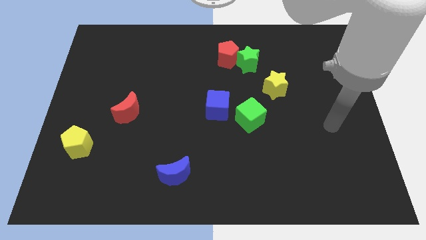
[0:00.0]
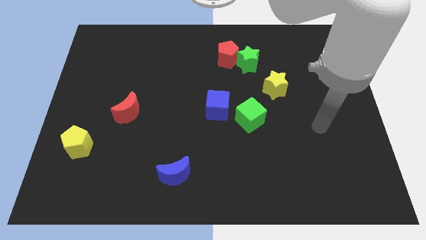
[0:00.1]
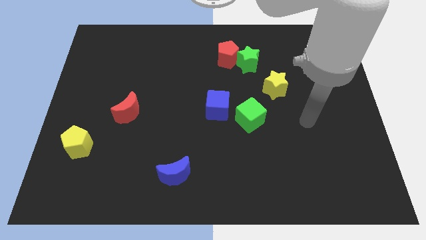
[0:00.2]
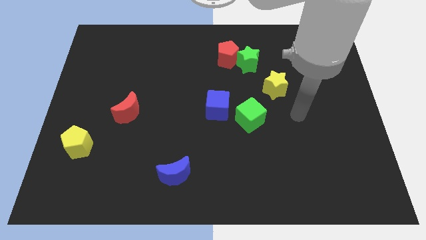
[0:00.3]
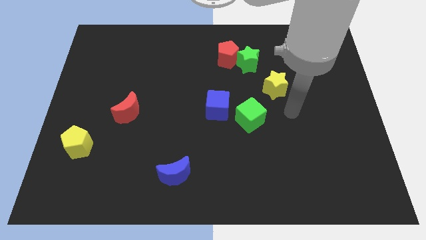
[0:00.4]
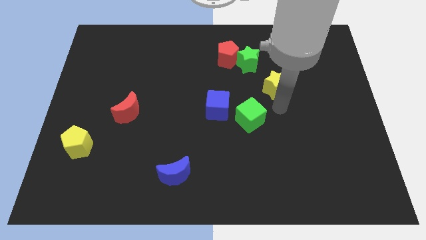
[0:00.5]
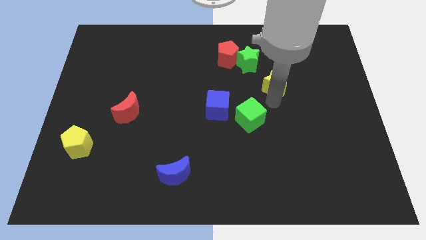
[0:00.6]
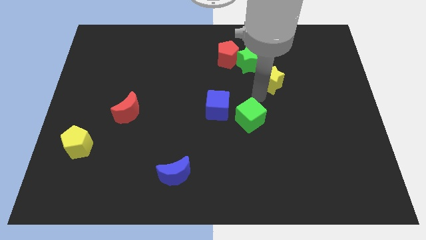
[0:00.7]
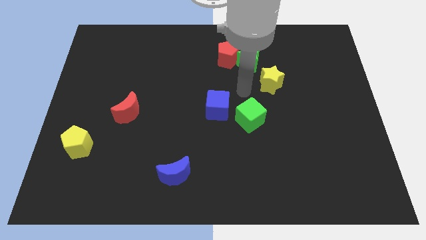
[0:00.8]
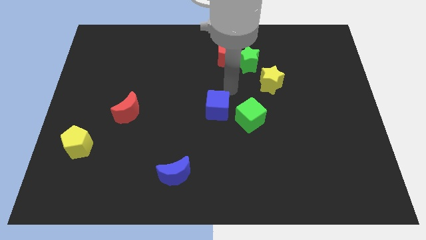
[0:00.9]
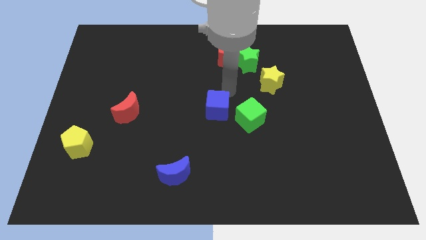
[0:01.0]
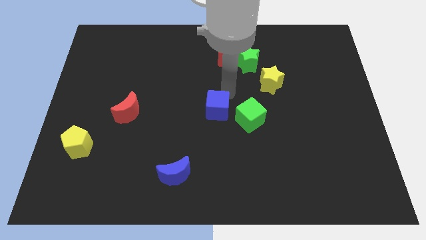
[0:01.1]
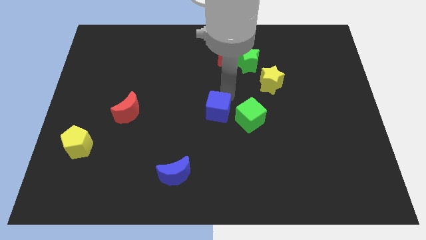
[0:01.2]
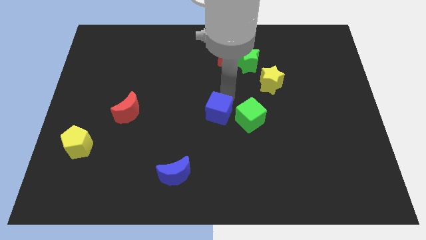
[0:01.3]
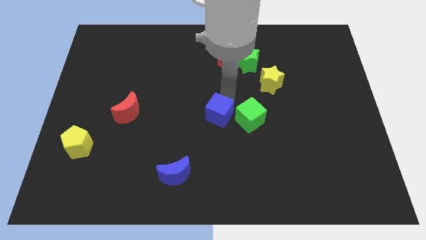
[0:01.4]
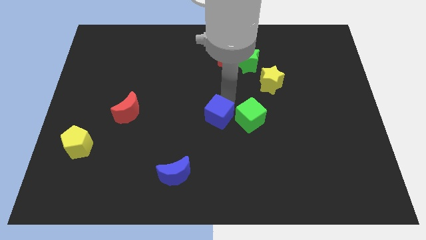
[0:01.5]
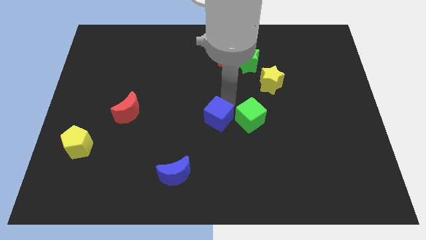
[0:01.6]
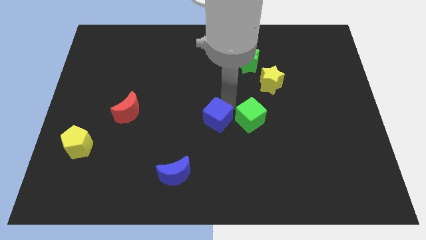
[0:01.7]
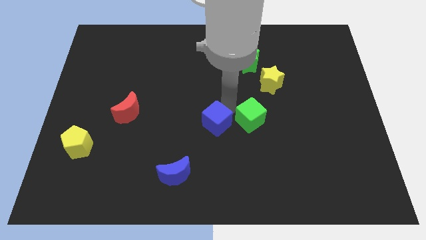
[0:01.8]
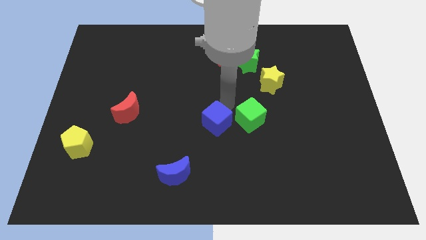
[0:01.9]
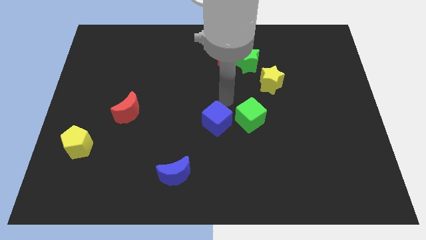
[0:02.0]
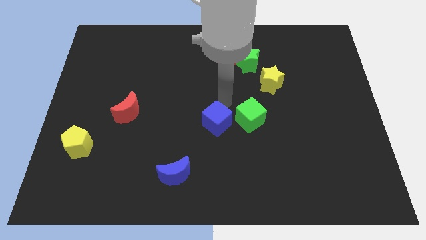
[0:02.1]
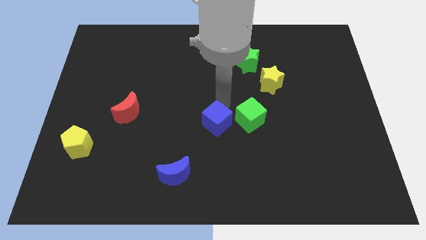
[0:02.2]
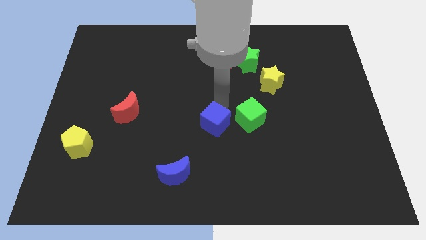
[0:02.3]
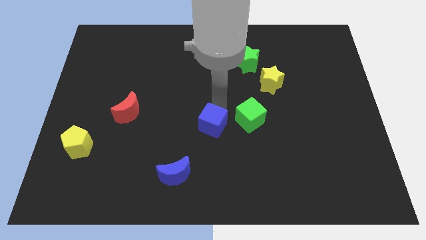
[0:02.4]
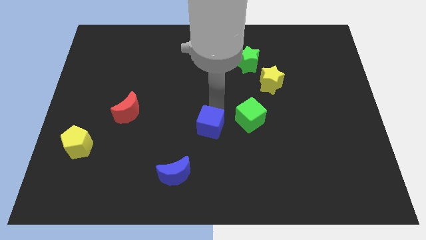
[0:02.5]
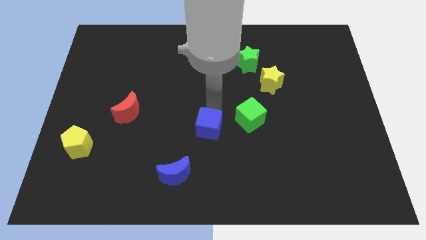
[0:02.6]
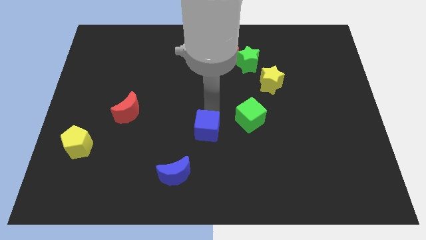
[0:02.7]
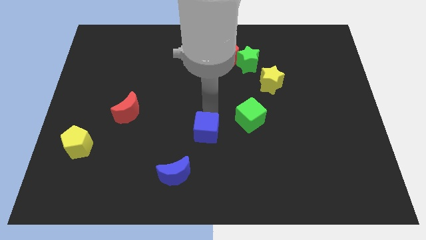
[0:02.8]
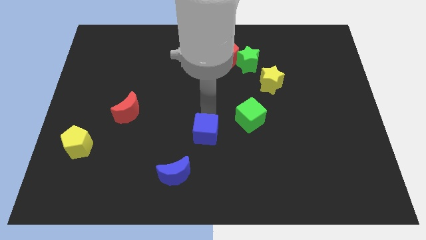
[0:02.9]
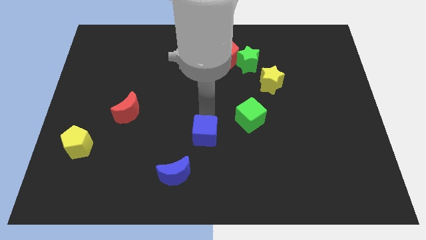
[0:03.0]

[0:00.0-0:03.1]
push the blue cube slightly down

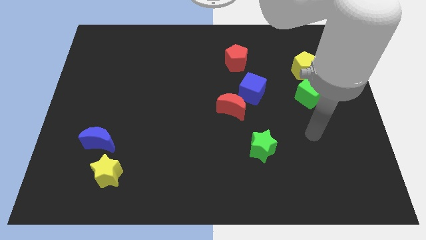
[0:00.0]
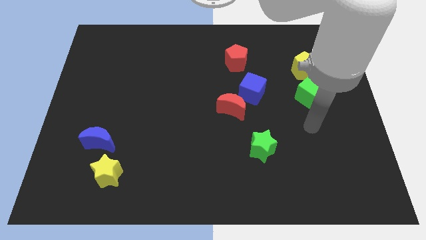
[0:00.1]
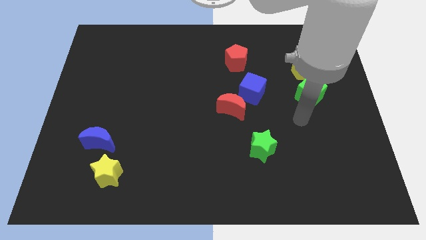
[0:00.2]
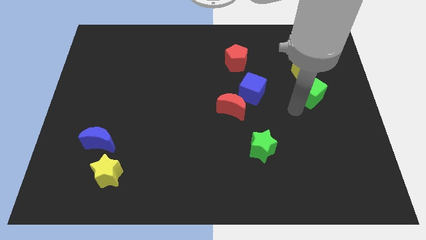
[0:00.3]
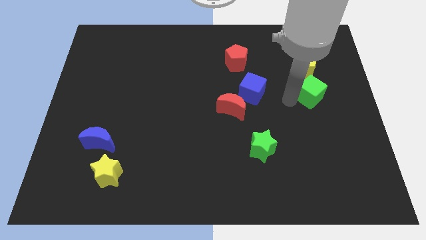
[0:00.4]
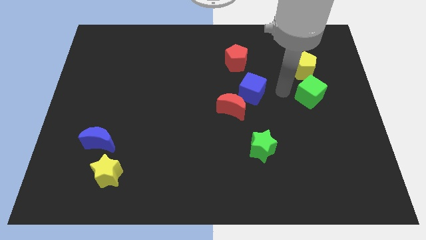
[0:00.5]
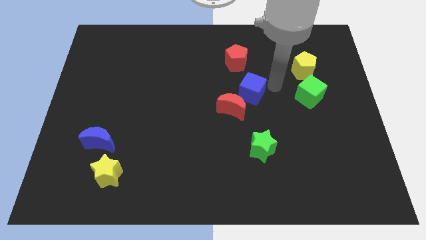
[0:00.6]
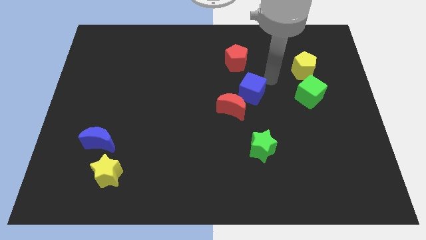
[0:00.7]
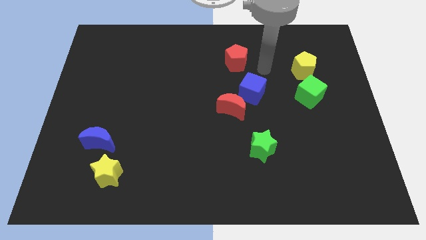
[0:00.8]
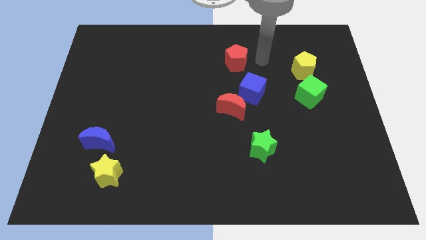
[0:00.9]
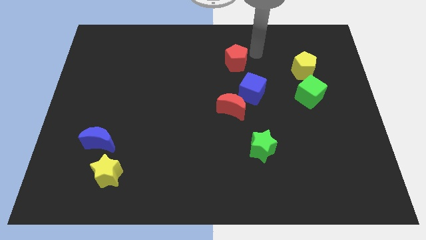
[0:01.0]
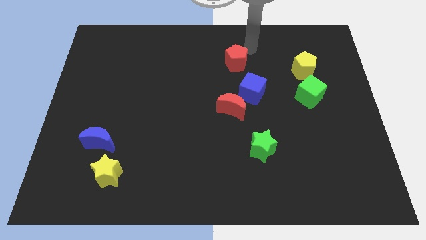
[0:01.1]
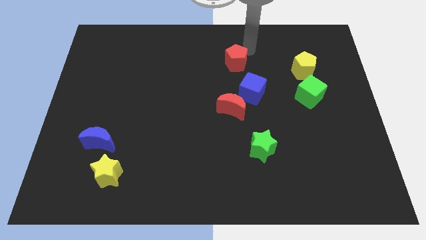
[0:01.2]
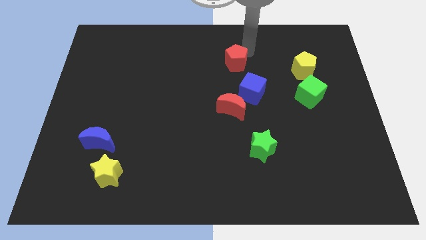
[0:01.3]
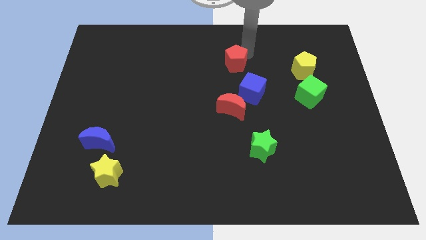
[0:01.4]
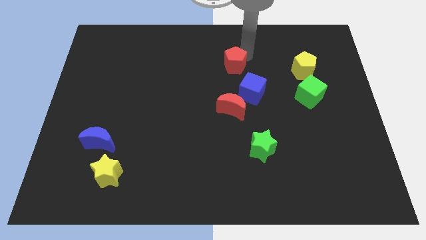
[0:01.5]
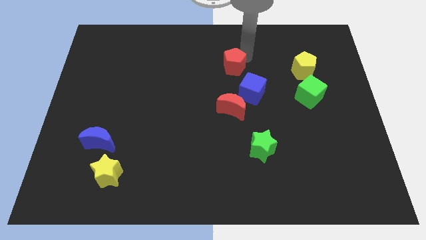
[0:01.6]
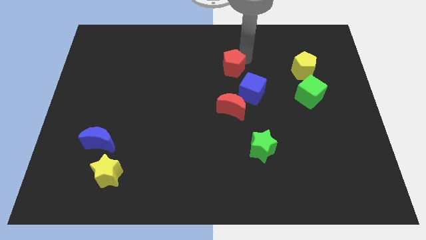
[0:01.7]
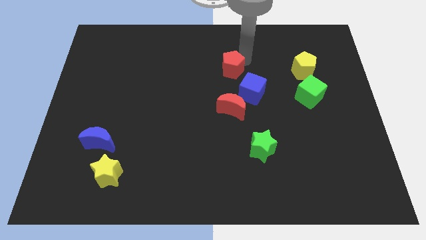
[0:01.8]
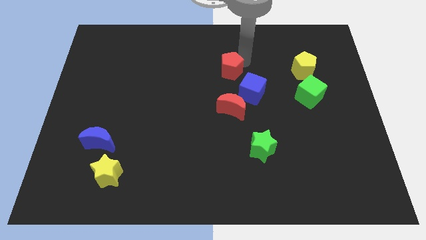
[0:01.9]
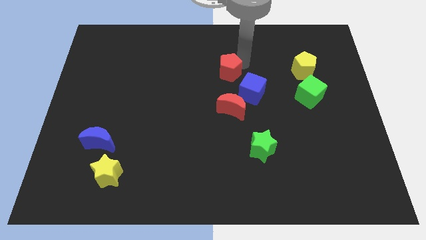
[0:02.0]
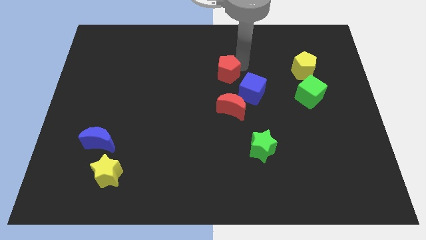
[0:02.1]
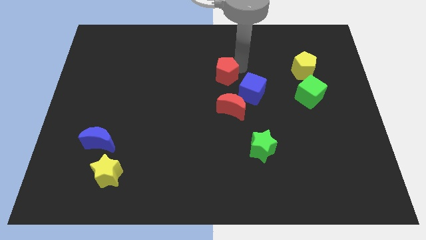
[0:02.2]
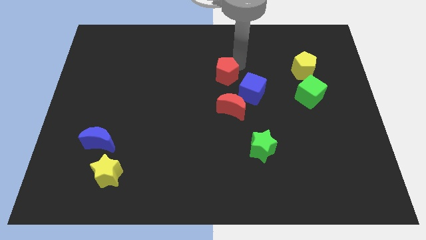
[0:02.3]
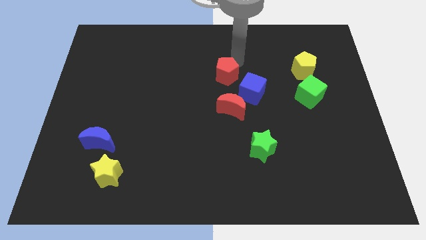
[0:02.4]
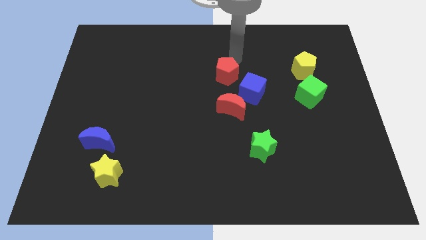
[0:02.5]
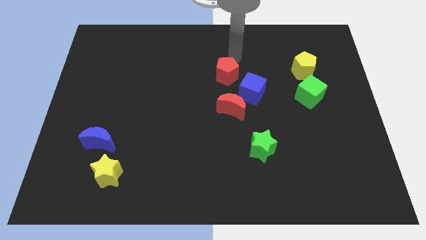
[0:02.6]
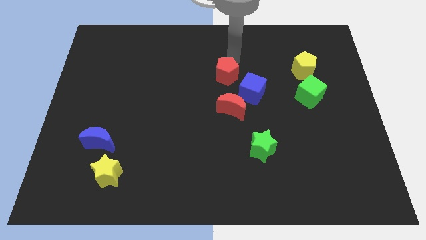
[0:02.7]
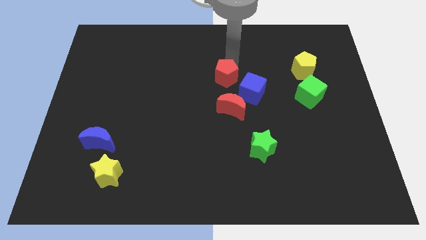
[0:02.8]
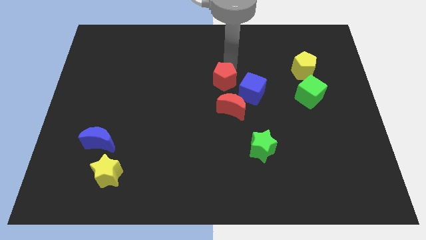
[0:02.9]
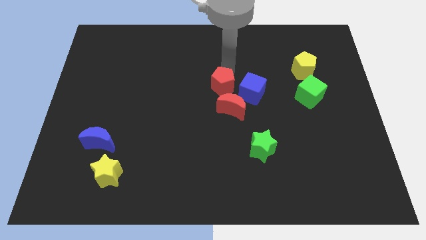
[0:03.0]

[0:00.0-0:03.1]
push the red pentagon downwards somewhat

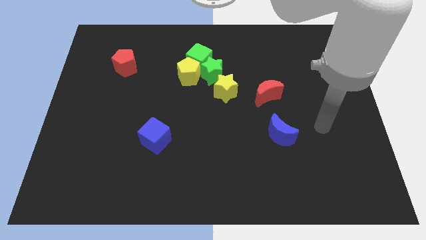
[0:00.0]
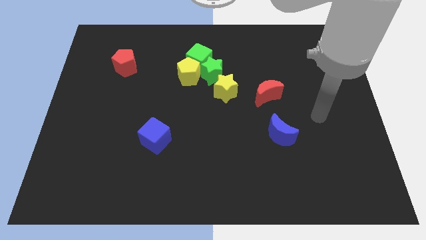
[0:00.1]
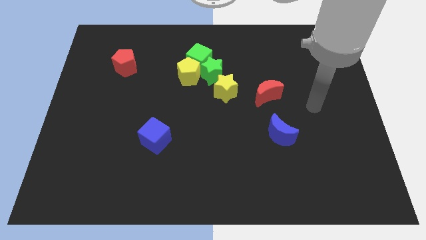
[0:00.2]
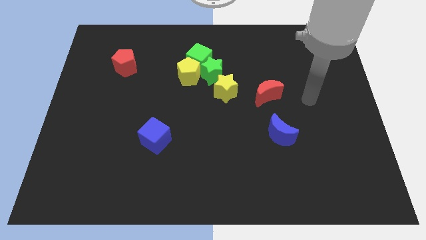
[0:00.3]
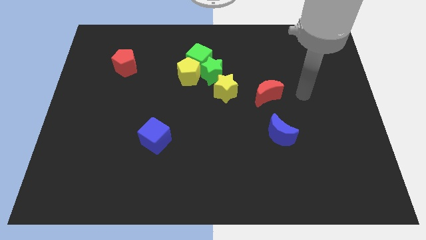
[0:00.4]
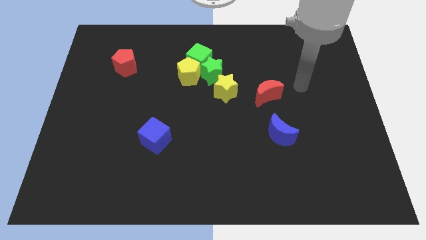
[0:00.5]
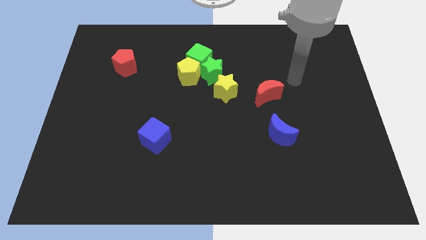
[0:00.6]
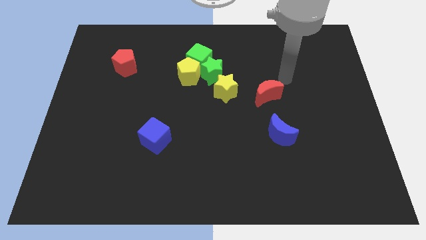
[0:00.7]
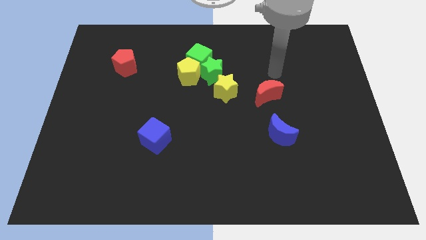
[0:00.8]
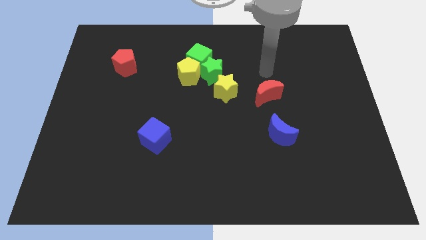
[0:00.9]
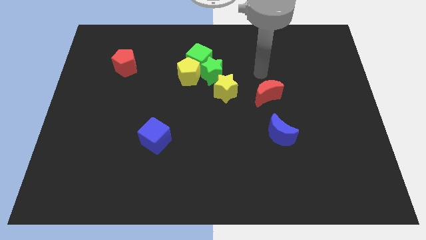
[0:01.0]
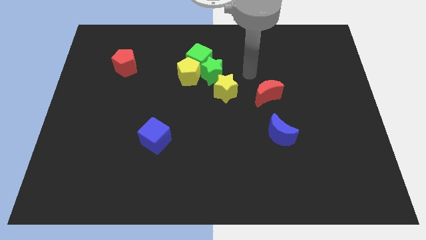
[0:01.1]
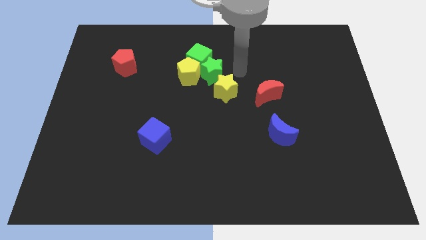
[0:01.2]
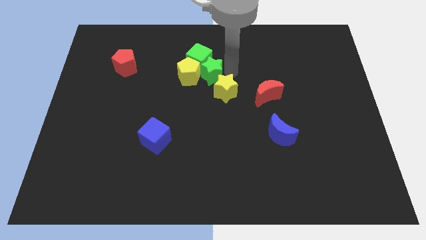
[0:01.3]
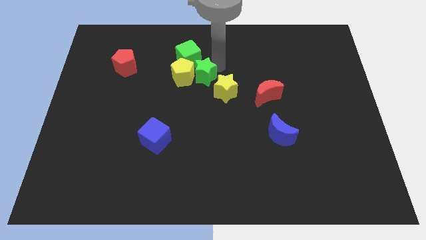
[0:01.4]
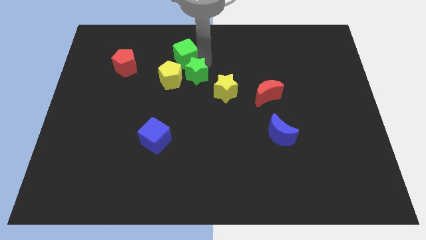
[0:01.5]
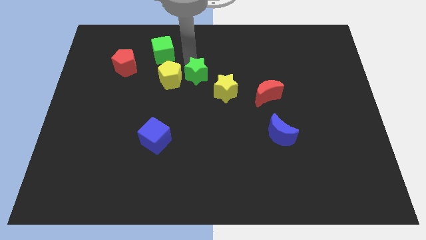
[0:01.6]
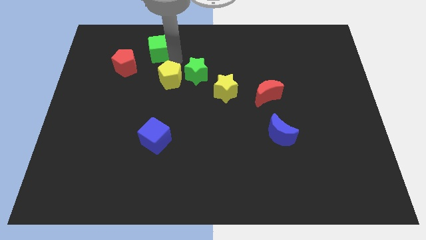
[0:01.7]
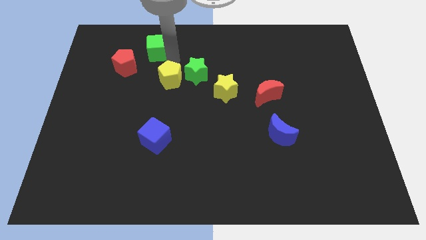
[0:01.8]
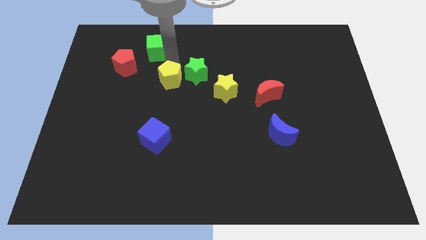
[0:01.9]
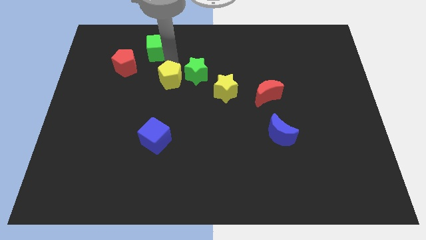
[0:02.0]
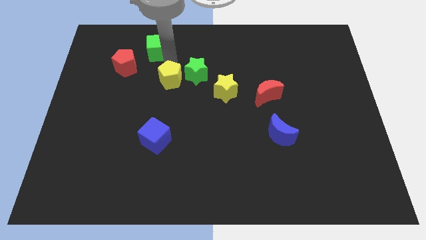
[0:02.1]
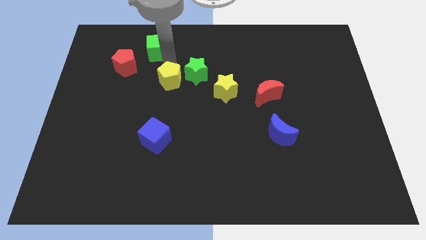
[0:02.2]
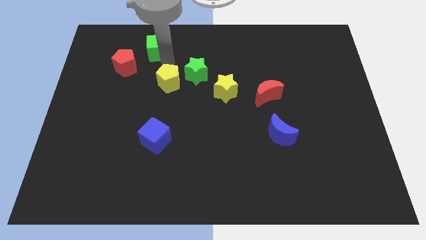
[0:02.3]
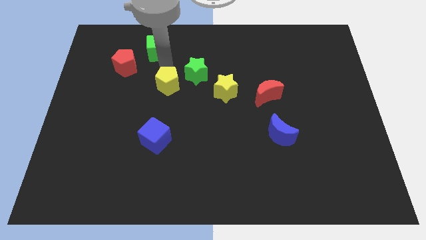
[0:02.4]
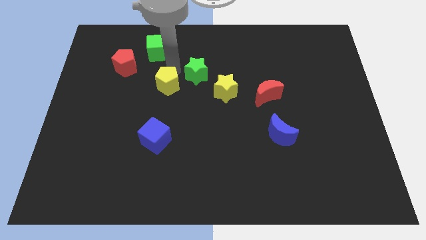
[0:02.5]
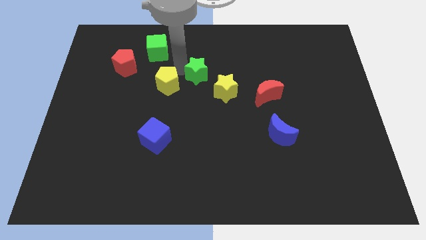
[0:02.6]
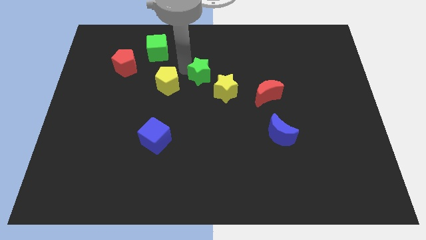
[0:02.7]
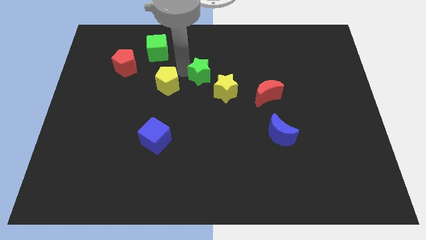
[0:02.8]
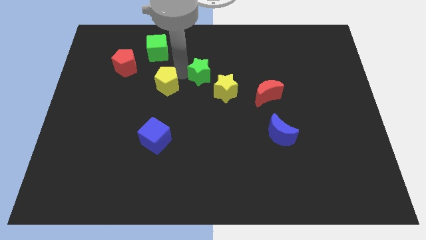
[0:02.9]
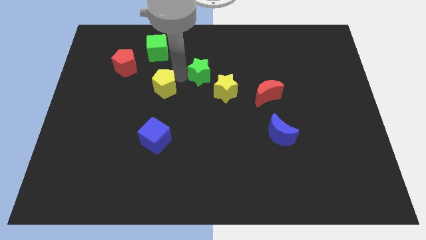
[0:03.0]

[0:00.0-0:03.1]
slightly push the yellow pentagon diagonally downwards and to the left
